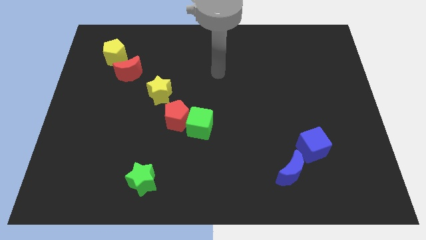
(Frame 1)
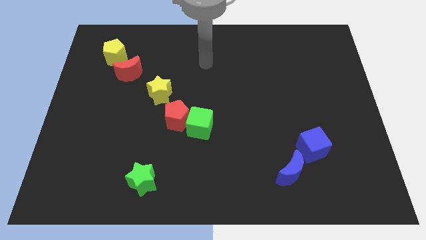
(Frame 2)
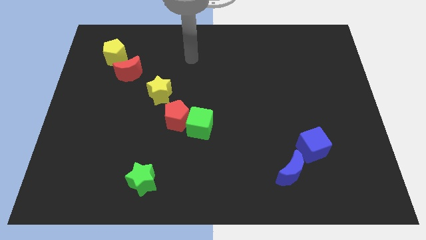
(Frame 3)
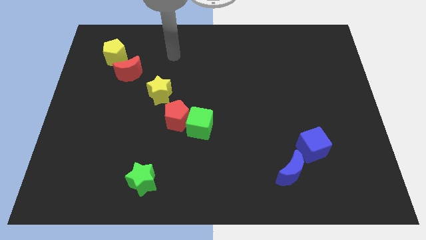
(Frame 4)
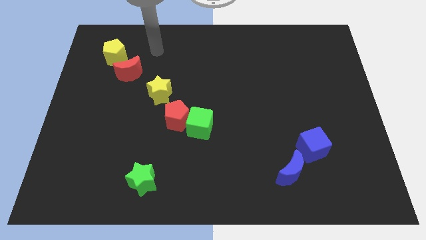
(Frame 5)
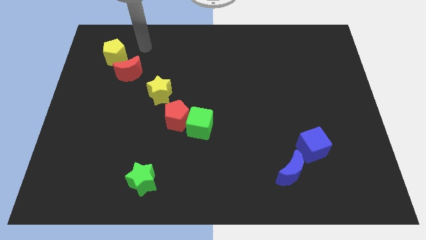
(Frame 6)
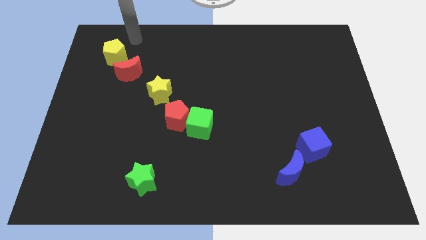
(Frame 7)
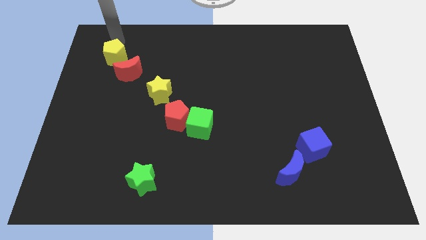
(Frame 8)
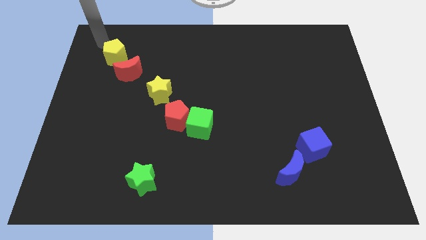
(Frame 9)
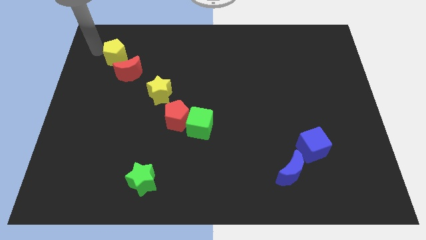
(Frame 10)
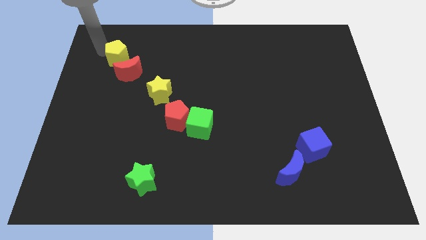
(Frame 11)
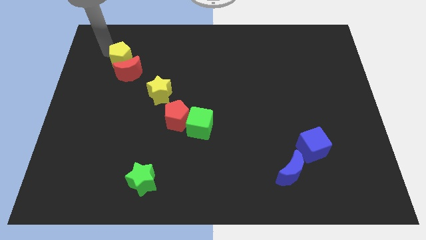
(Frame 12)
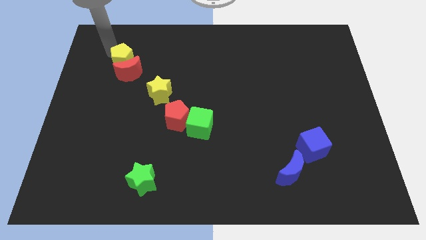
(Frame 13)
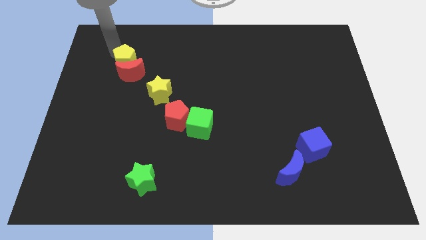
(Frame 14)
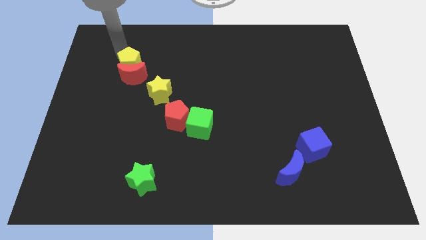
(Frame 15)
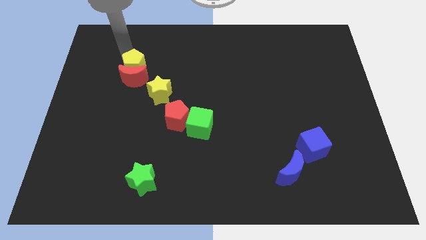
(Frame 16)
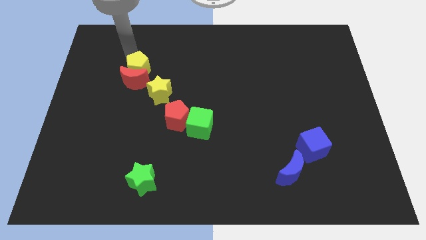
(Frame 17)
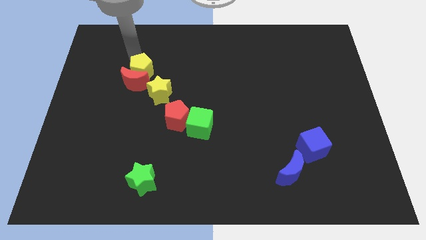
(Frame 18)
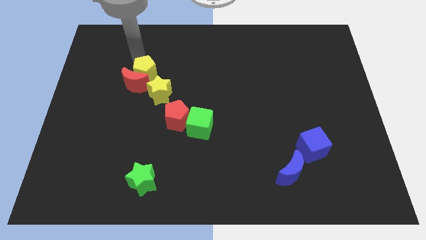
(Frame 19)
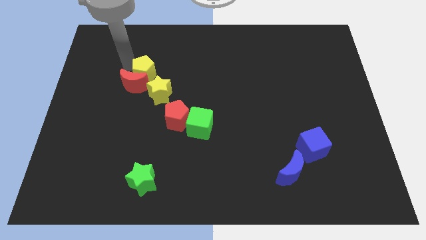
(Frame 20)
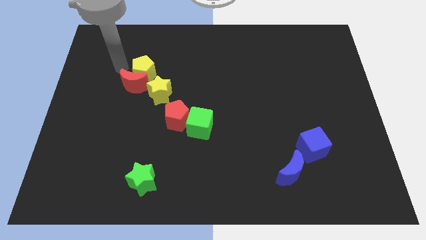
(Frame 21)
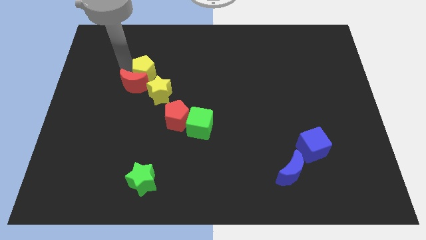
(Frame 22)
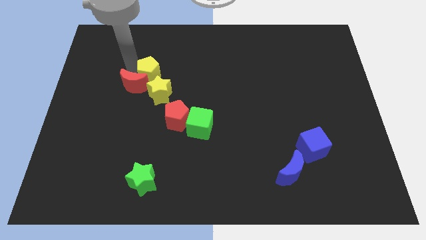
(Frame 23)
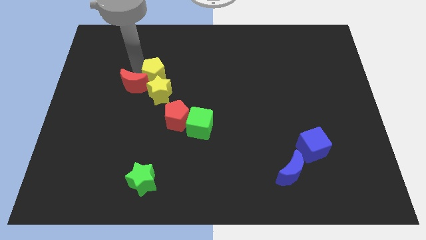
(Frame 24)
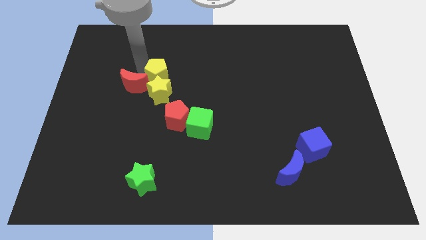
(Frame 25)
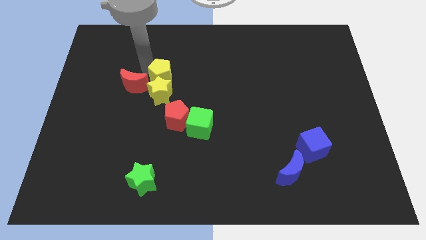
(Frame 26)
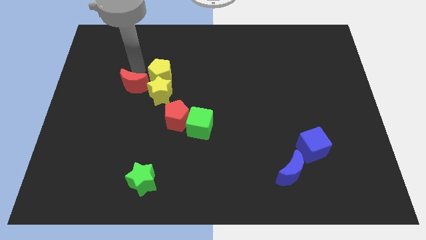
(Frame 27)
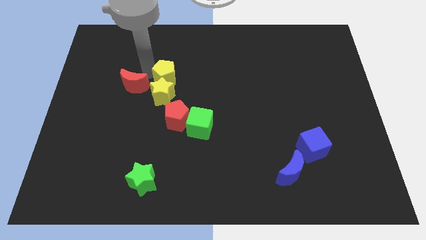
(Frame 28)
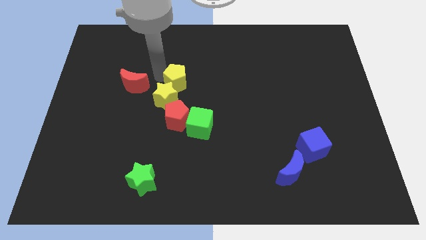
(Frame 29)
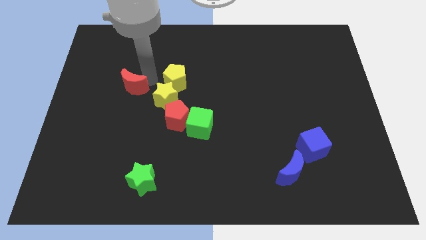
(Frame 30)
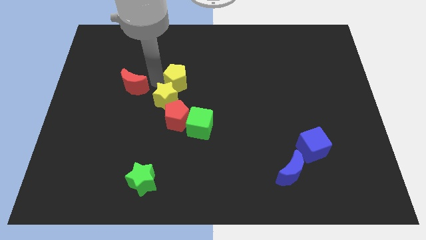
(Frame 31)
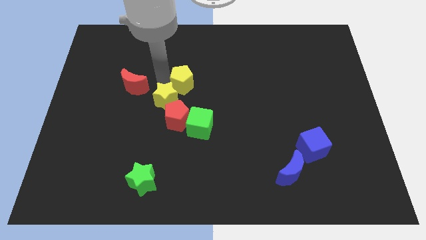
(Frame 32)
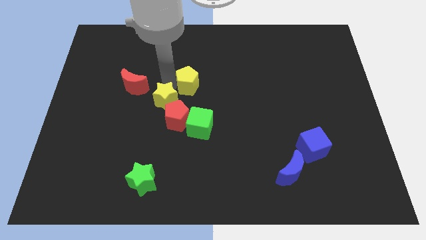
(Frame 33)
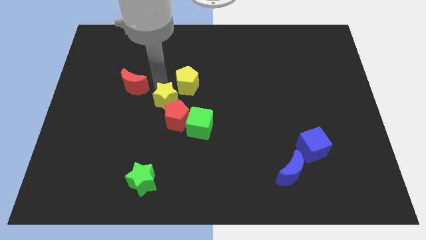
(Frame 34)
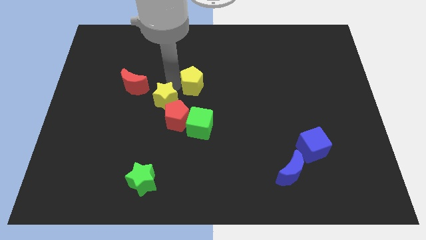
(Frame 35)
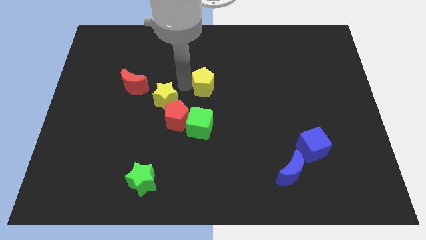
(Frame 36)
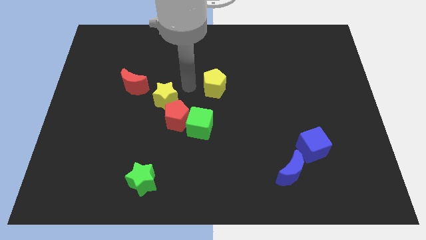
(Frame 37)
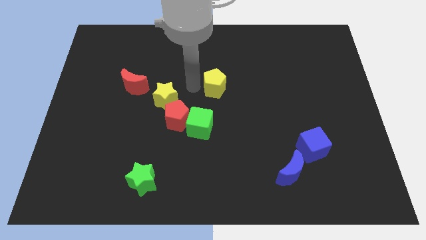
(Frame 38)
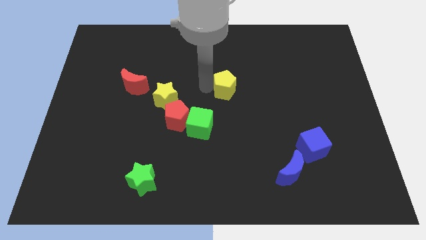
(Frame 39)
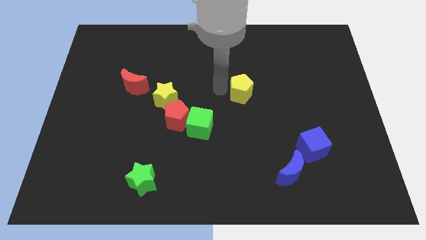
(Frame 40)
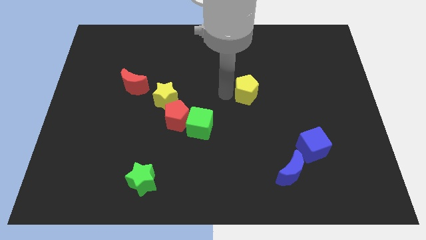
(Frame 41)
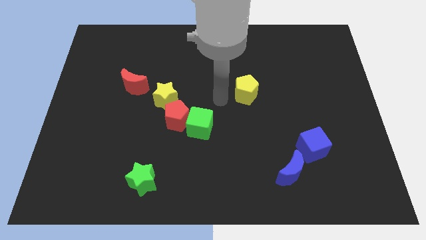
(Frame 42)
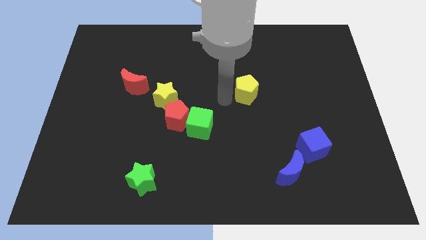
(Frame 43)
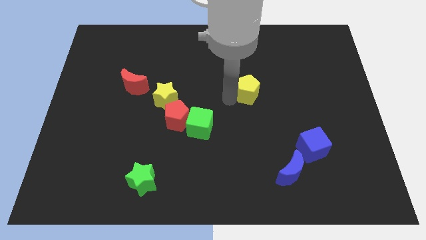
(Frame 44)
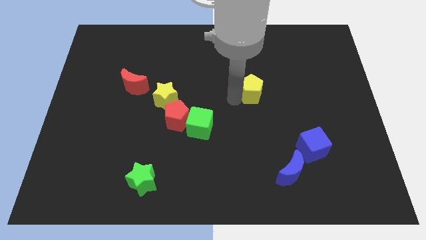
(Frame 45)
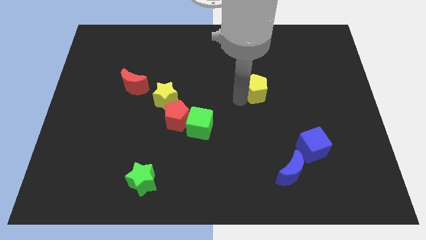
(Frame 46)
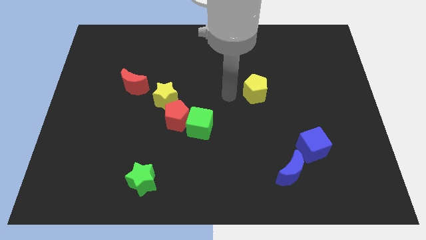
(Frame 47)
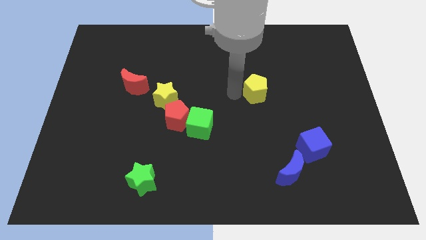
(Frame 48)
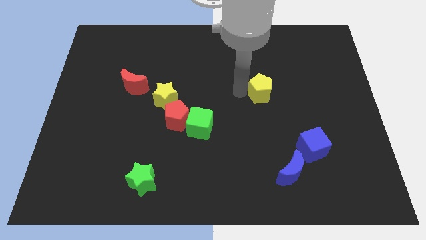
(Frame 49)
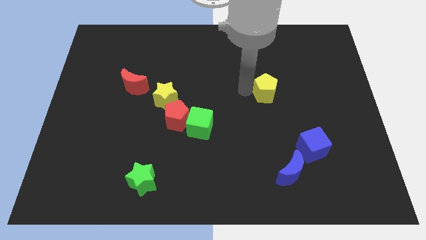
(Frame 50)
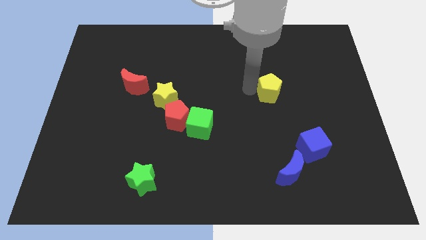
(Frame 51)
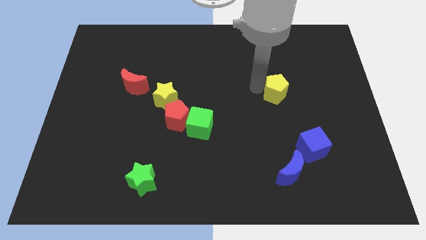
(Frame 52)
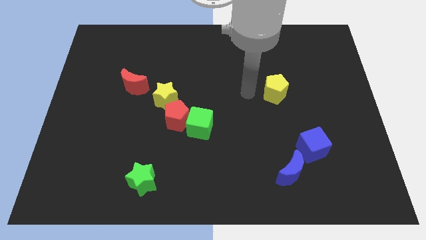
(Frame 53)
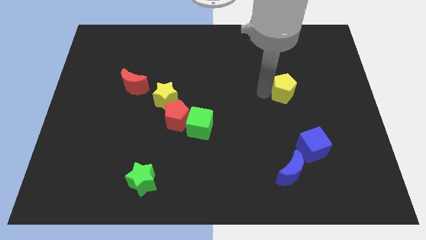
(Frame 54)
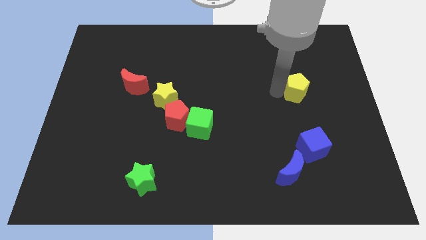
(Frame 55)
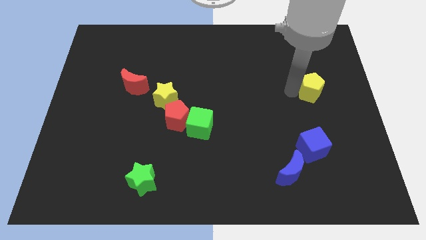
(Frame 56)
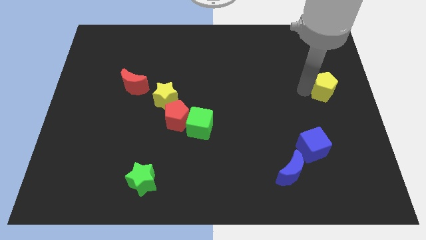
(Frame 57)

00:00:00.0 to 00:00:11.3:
slide the yellow pentagon to the right side
